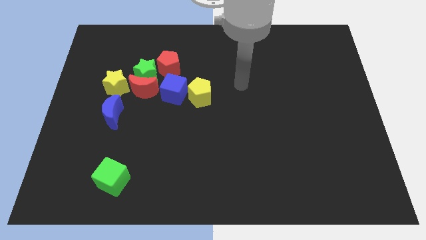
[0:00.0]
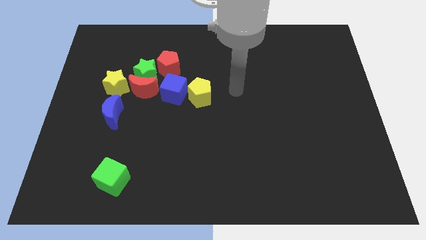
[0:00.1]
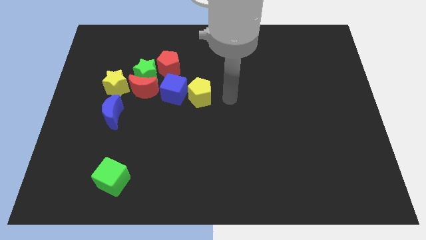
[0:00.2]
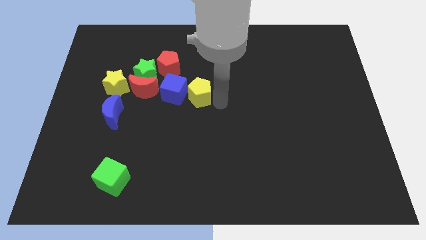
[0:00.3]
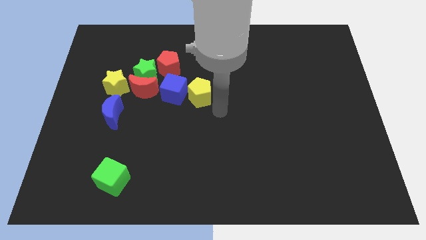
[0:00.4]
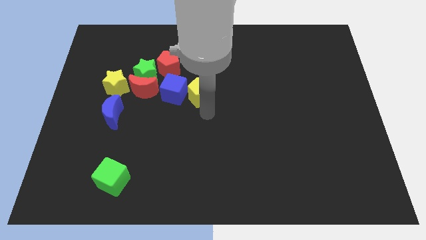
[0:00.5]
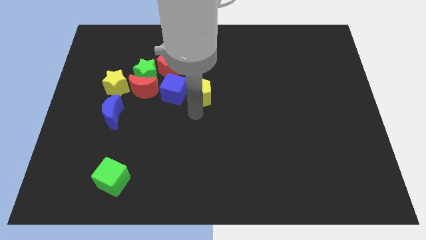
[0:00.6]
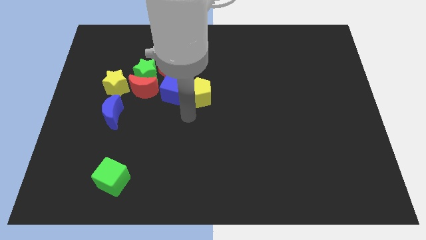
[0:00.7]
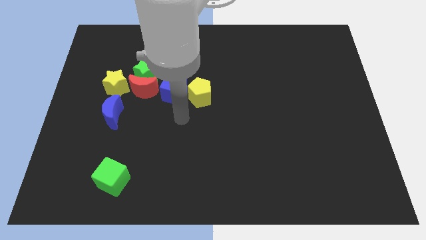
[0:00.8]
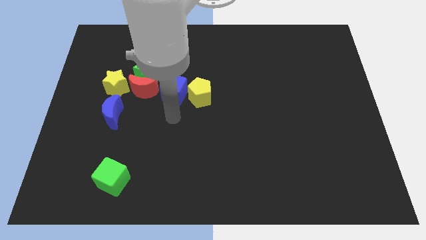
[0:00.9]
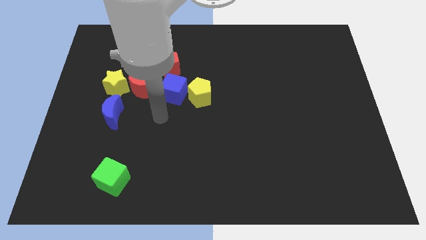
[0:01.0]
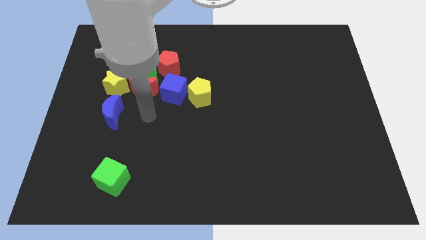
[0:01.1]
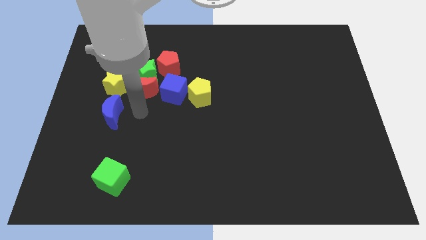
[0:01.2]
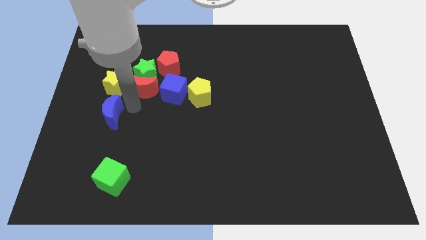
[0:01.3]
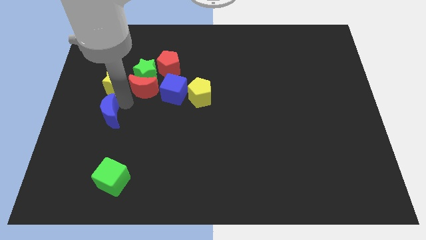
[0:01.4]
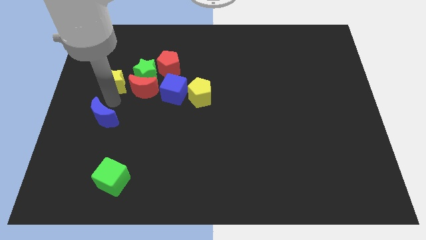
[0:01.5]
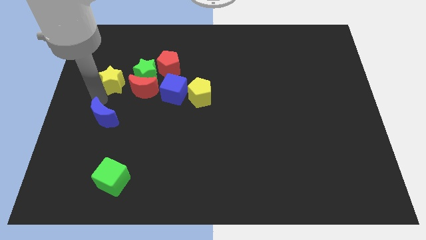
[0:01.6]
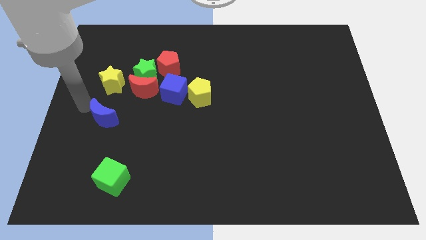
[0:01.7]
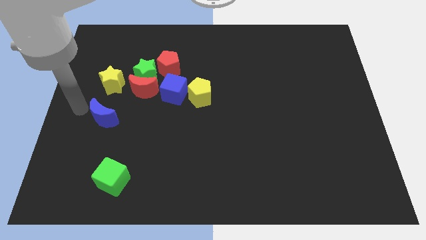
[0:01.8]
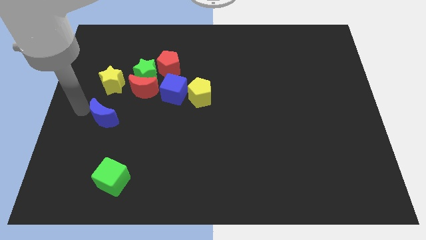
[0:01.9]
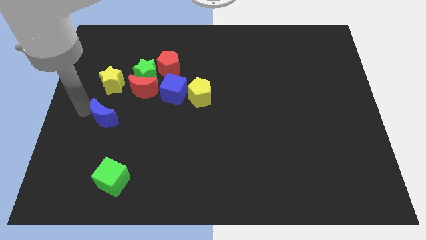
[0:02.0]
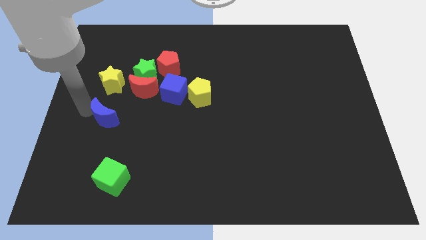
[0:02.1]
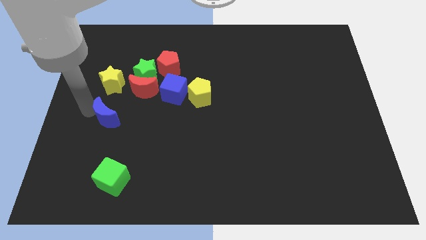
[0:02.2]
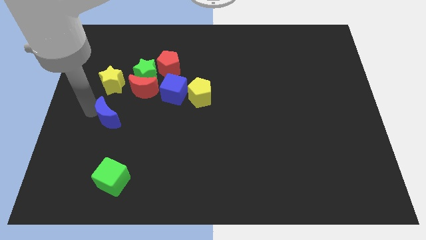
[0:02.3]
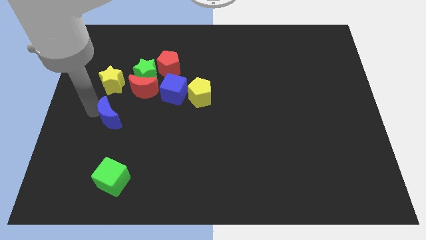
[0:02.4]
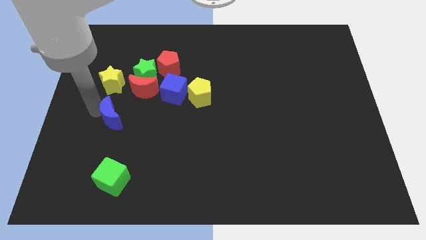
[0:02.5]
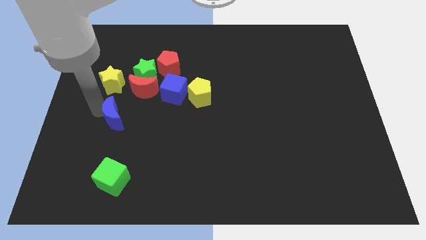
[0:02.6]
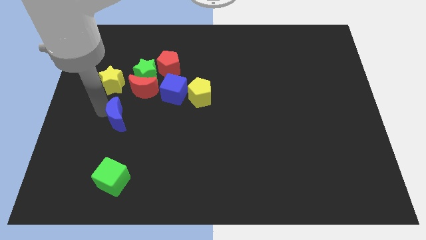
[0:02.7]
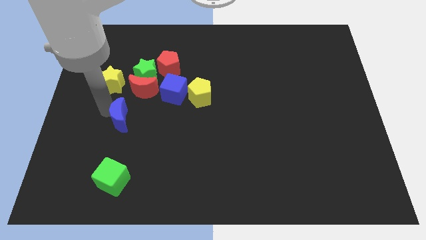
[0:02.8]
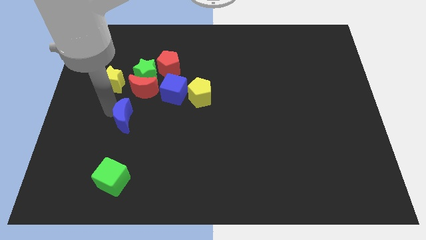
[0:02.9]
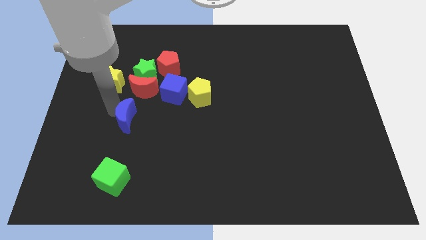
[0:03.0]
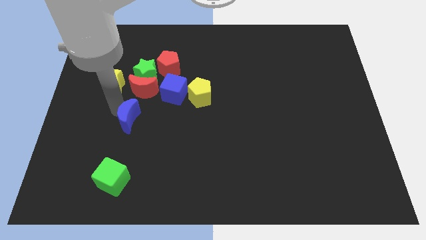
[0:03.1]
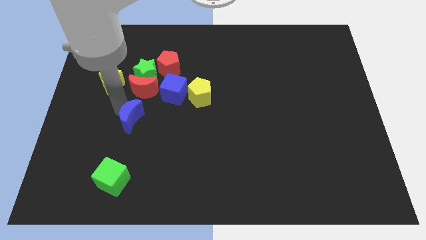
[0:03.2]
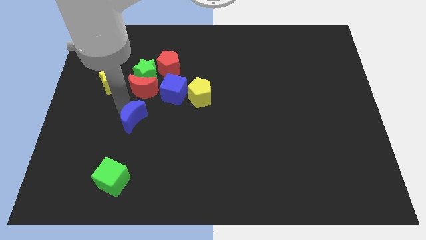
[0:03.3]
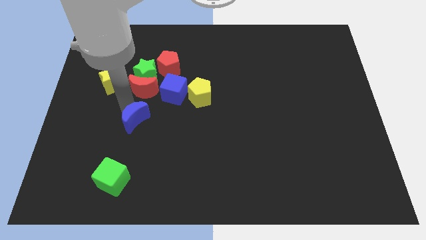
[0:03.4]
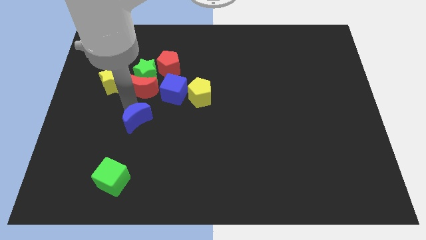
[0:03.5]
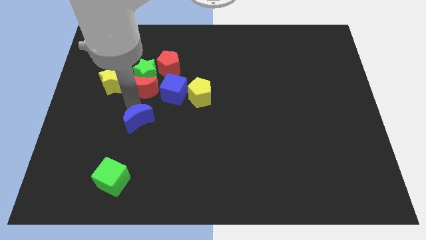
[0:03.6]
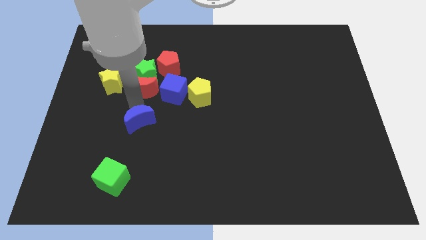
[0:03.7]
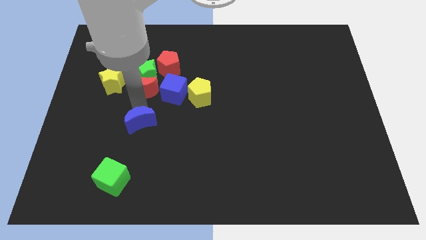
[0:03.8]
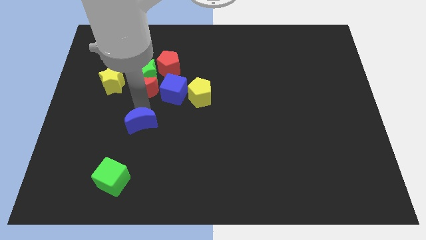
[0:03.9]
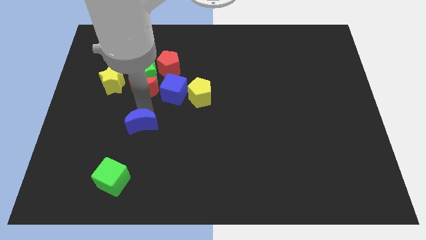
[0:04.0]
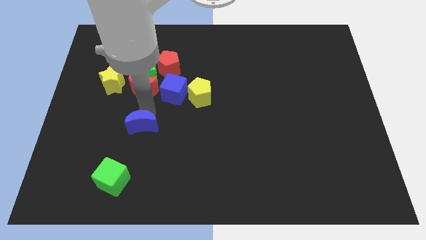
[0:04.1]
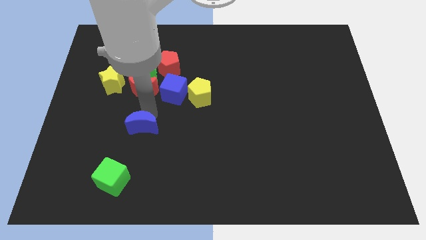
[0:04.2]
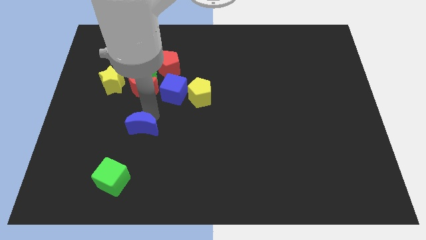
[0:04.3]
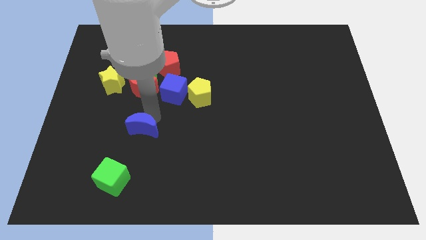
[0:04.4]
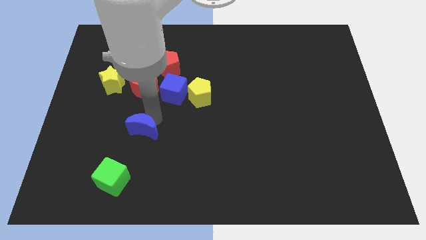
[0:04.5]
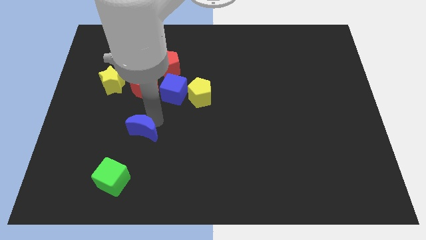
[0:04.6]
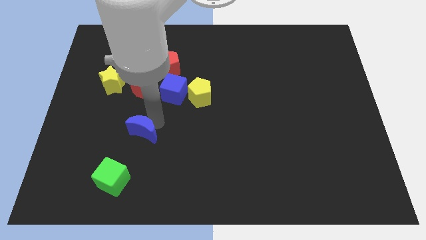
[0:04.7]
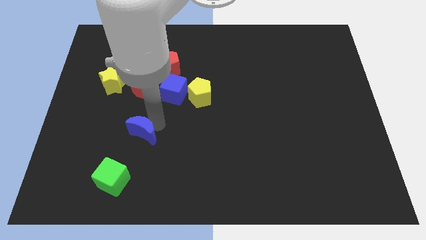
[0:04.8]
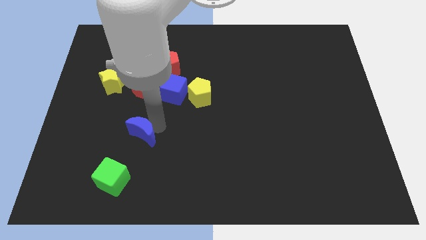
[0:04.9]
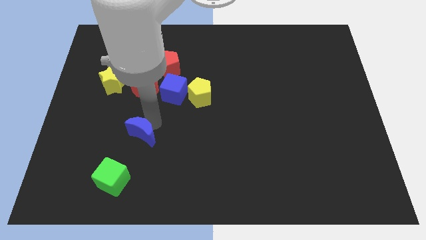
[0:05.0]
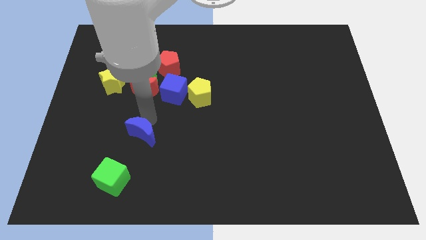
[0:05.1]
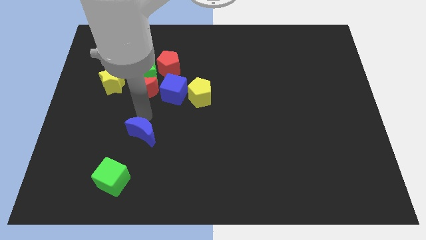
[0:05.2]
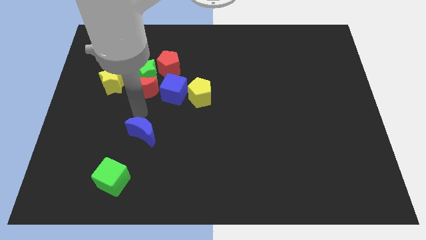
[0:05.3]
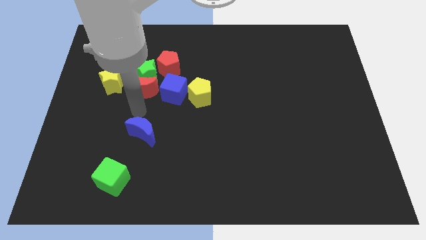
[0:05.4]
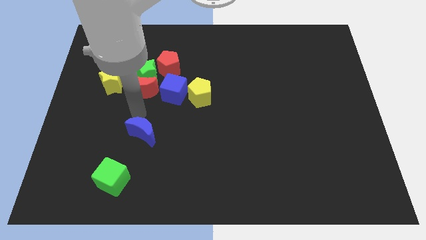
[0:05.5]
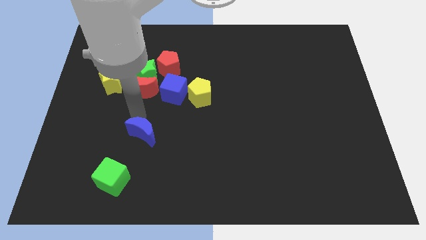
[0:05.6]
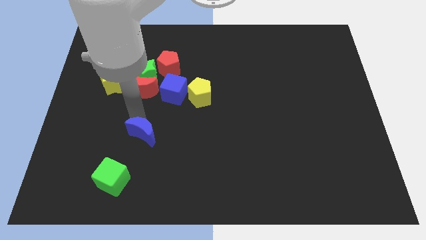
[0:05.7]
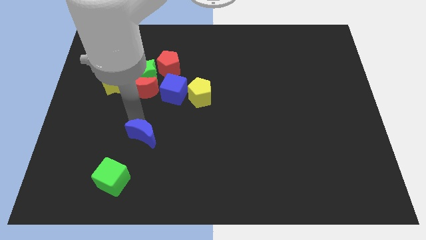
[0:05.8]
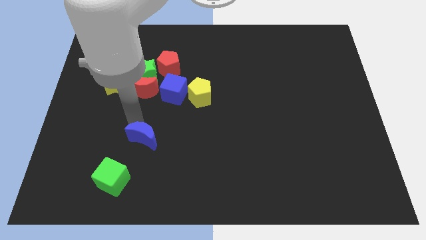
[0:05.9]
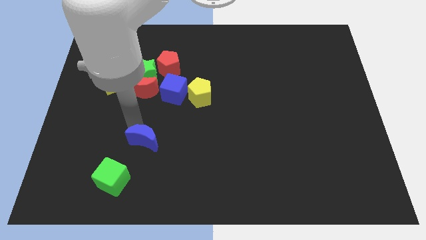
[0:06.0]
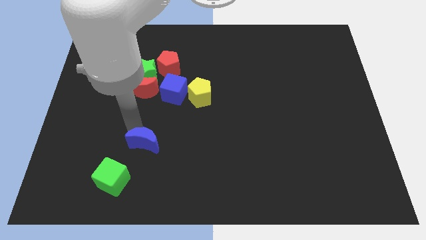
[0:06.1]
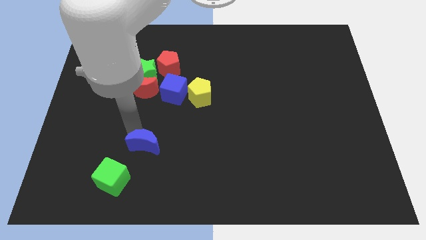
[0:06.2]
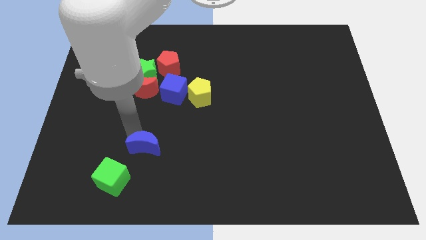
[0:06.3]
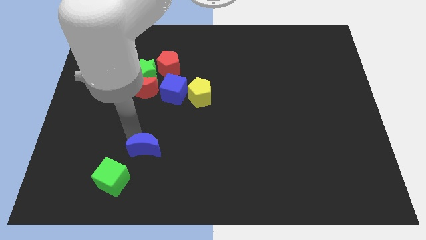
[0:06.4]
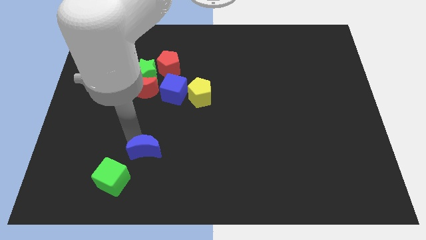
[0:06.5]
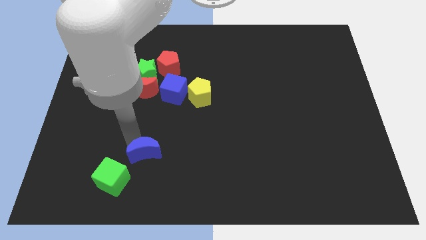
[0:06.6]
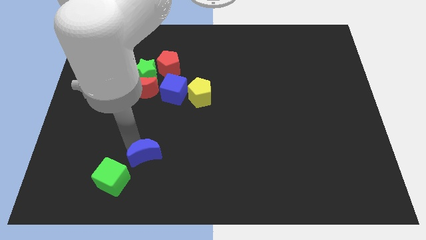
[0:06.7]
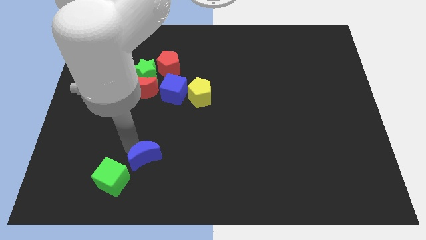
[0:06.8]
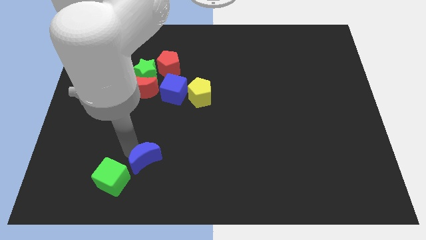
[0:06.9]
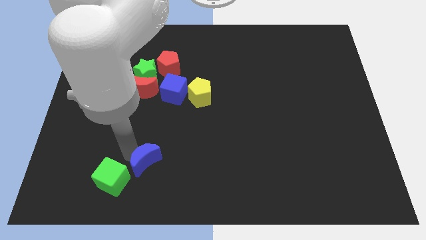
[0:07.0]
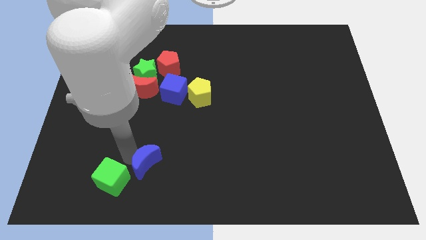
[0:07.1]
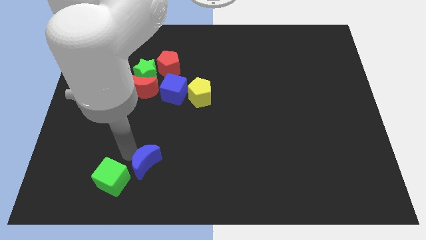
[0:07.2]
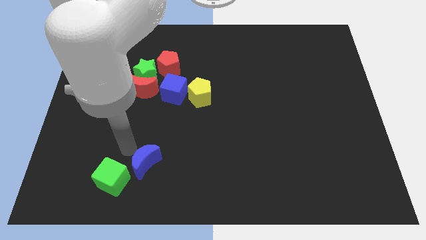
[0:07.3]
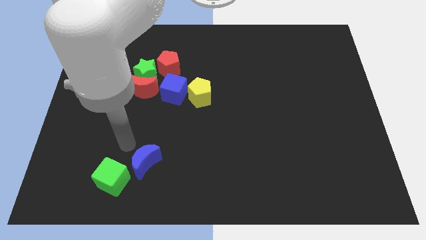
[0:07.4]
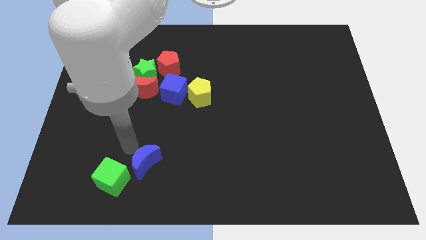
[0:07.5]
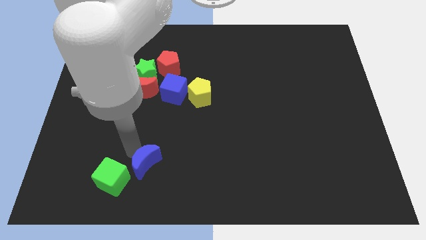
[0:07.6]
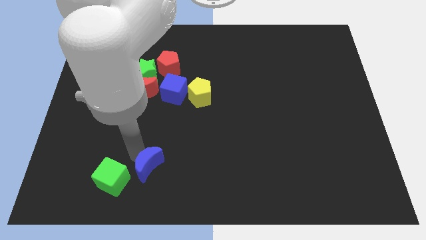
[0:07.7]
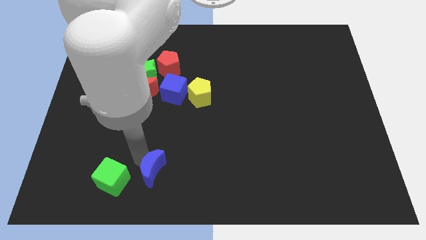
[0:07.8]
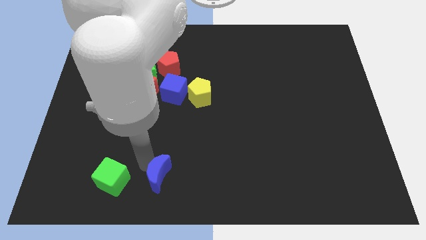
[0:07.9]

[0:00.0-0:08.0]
push the blue moon to the bottom
